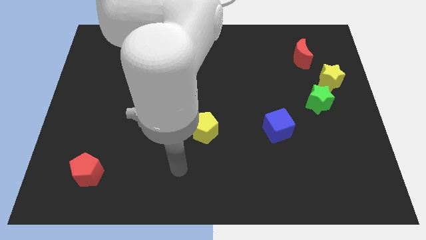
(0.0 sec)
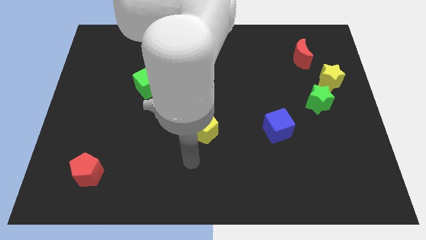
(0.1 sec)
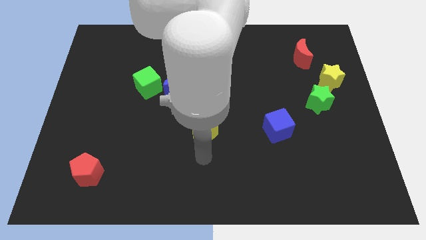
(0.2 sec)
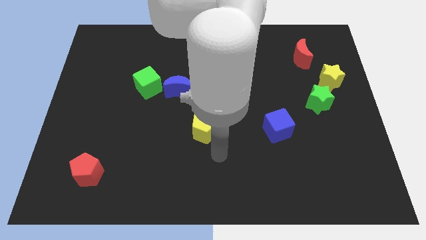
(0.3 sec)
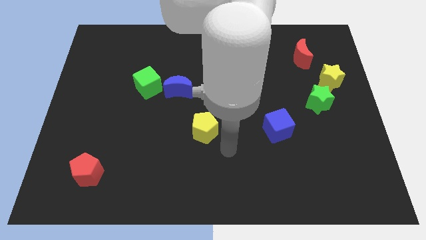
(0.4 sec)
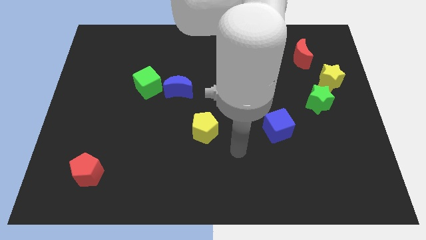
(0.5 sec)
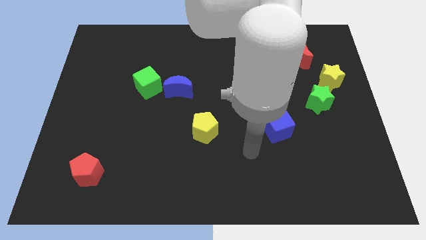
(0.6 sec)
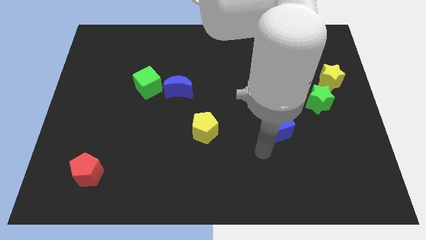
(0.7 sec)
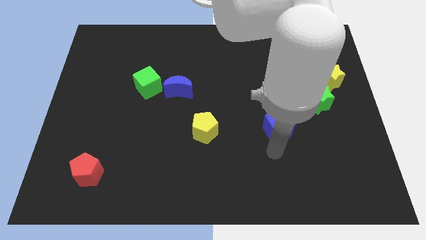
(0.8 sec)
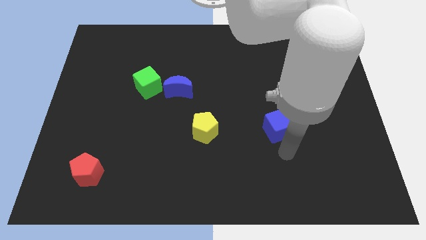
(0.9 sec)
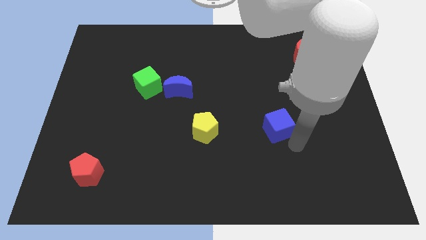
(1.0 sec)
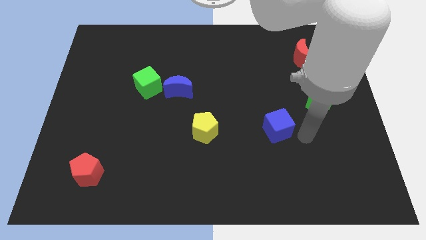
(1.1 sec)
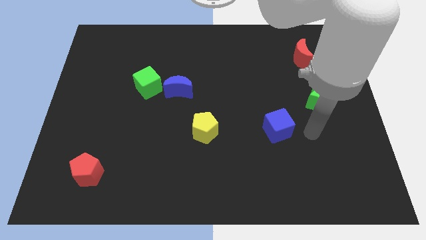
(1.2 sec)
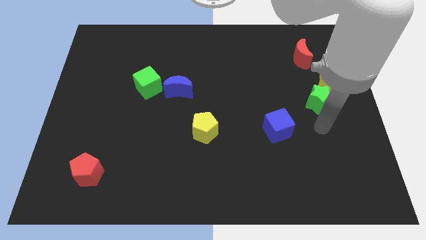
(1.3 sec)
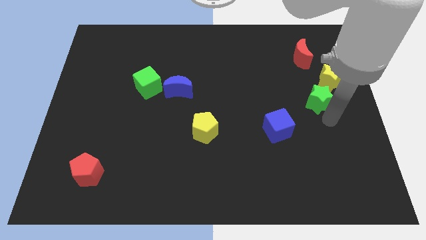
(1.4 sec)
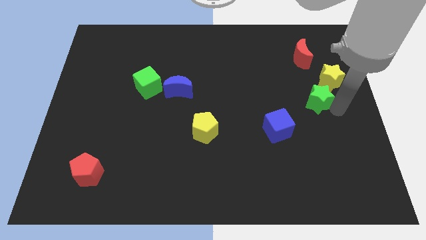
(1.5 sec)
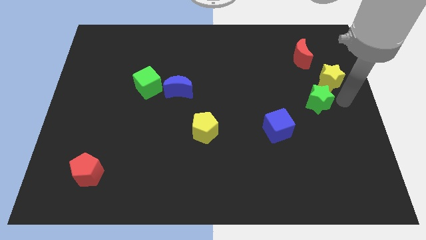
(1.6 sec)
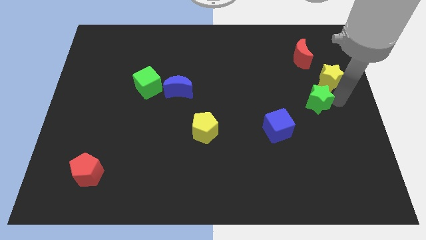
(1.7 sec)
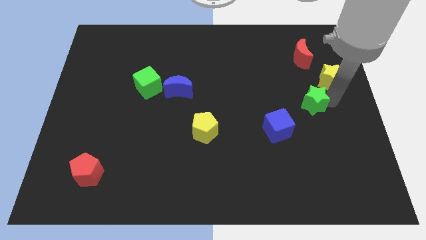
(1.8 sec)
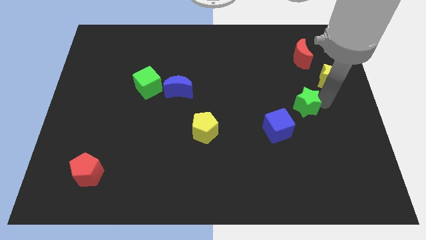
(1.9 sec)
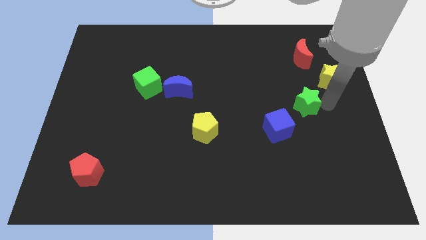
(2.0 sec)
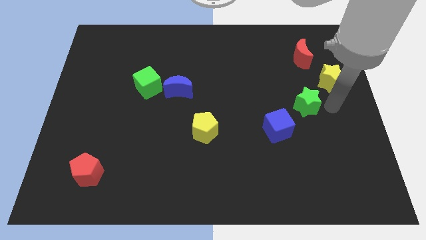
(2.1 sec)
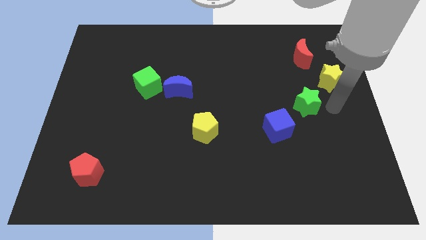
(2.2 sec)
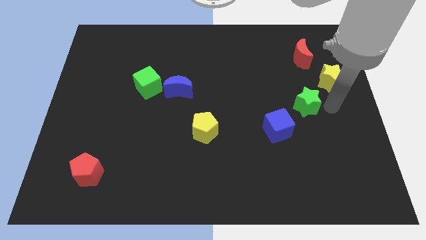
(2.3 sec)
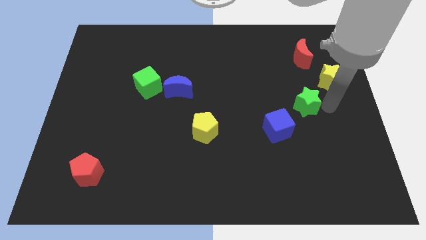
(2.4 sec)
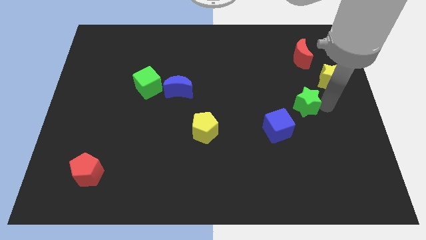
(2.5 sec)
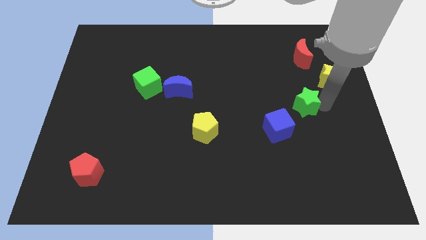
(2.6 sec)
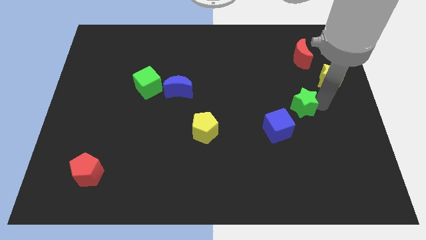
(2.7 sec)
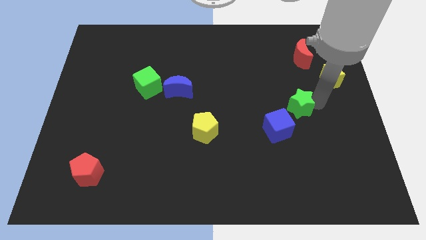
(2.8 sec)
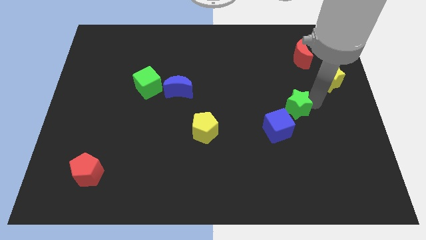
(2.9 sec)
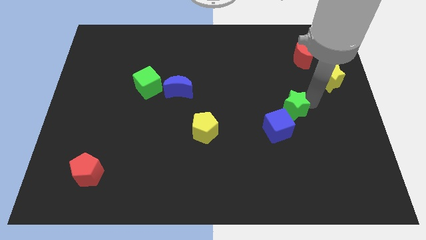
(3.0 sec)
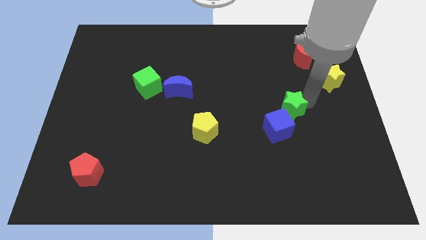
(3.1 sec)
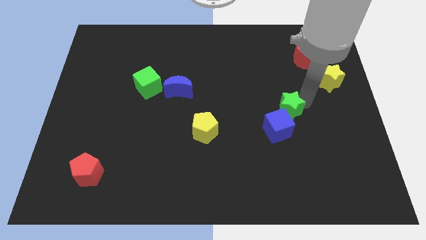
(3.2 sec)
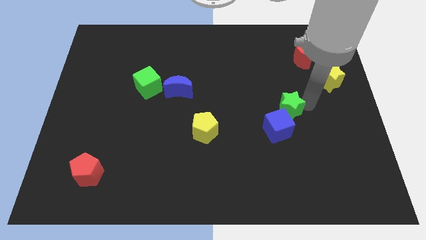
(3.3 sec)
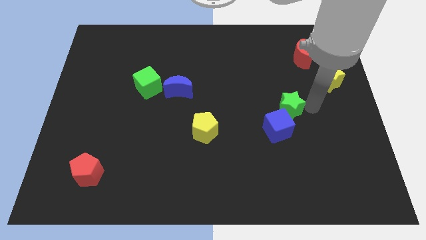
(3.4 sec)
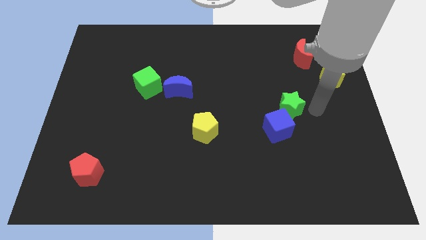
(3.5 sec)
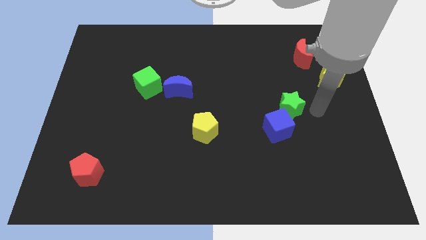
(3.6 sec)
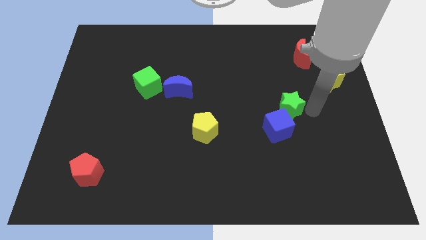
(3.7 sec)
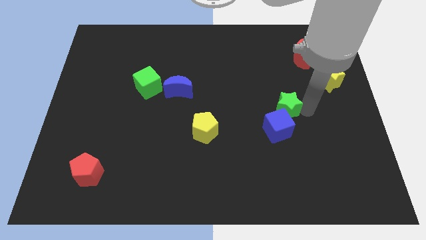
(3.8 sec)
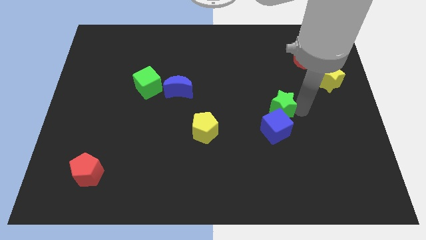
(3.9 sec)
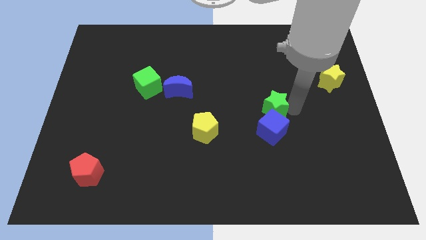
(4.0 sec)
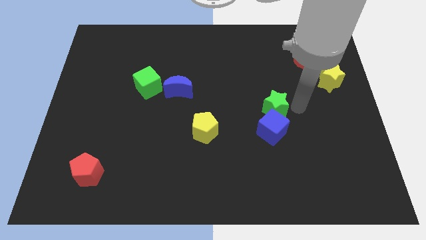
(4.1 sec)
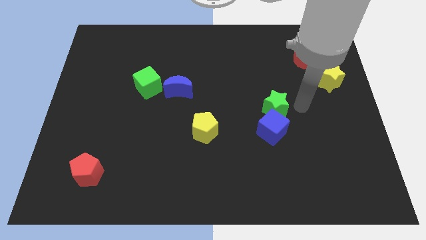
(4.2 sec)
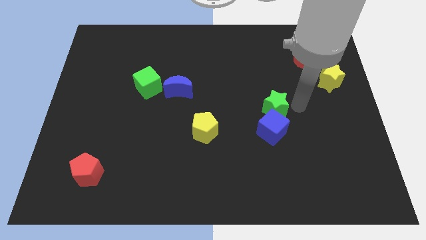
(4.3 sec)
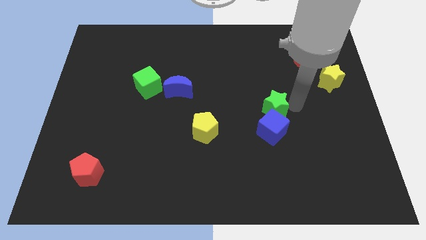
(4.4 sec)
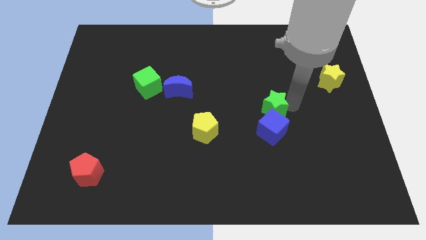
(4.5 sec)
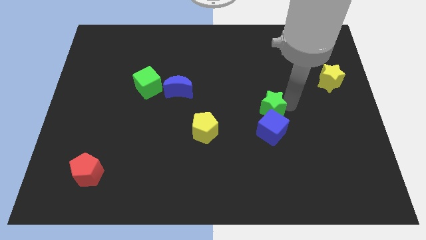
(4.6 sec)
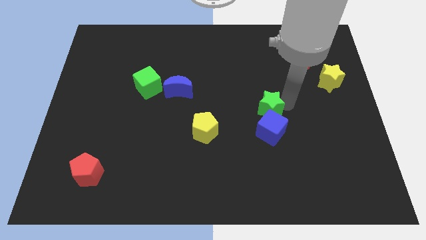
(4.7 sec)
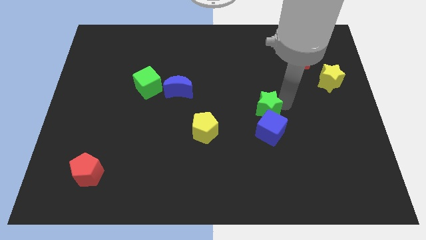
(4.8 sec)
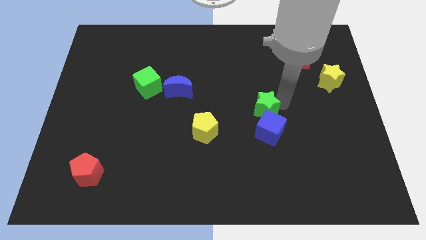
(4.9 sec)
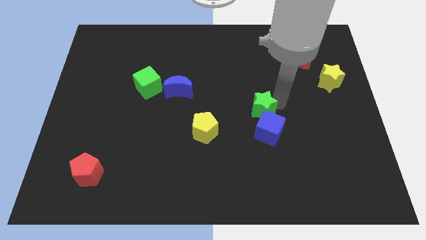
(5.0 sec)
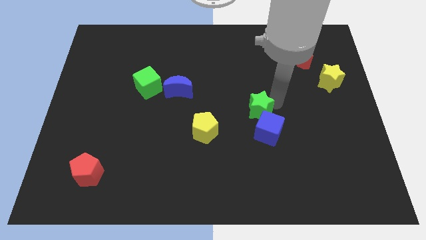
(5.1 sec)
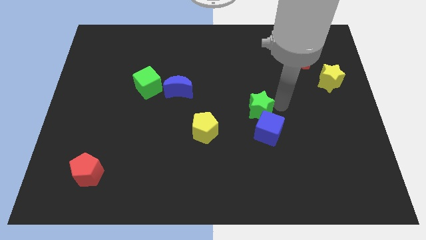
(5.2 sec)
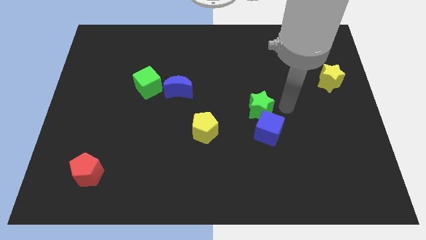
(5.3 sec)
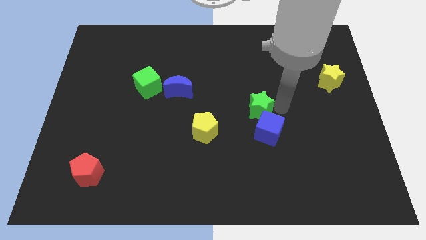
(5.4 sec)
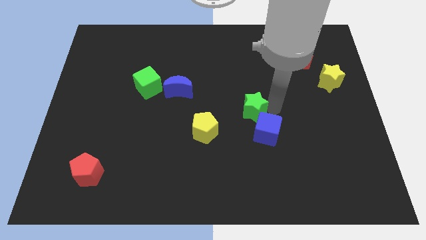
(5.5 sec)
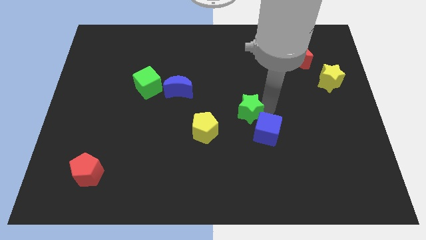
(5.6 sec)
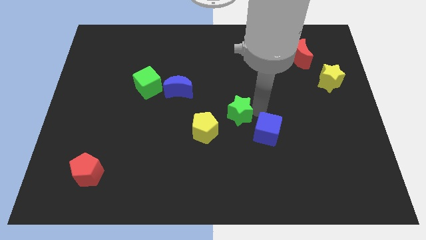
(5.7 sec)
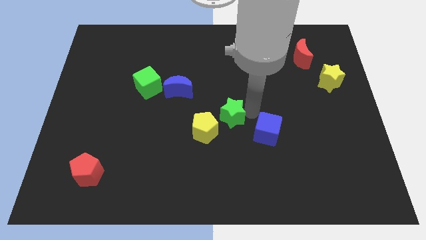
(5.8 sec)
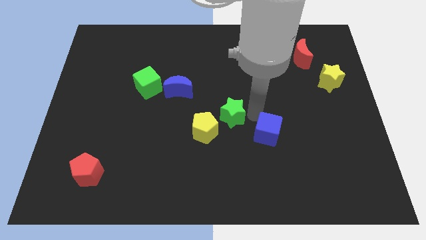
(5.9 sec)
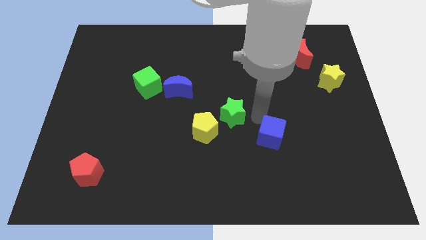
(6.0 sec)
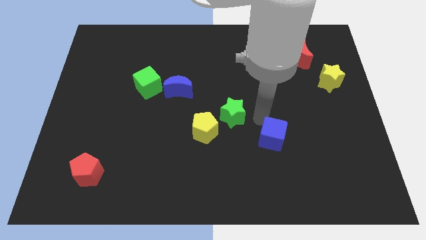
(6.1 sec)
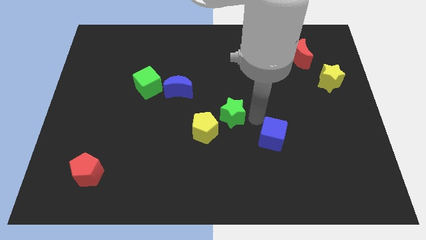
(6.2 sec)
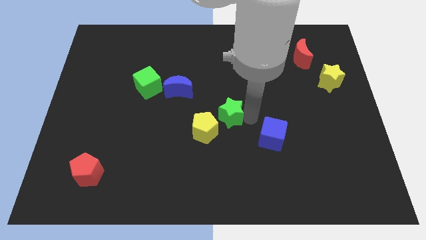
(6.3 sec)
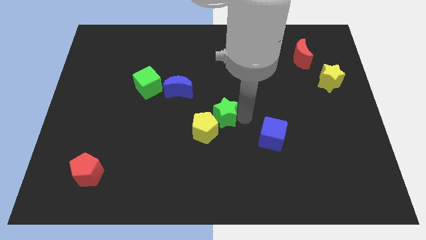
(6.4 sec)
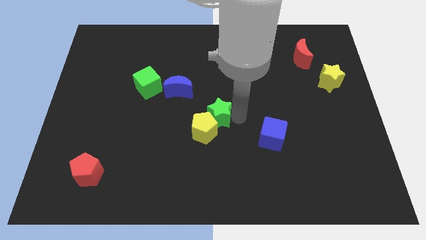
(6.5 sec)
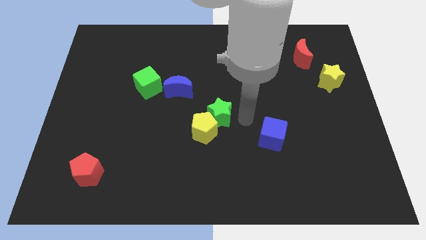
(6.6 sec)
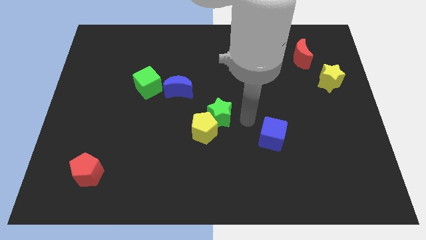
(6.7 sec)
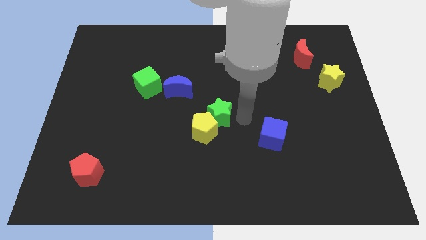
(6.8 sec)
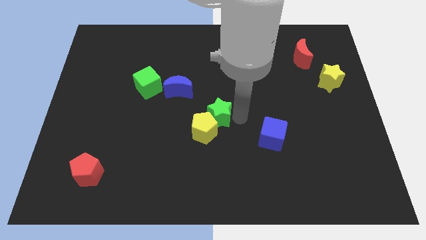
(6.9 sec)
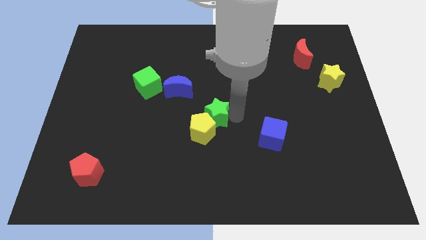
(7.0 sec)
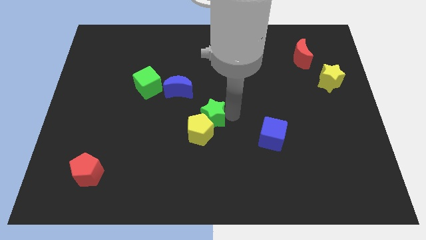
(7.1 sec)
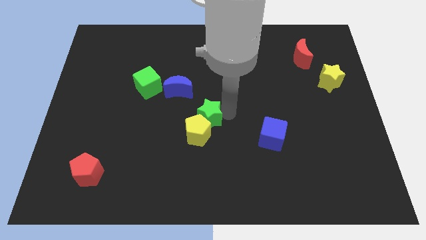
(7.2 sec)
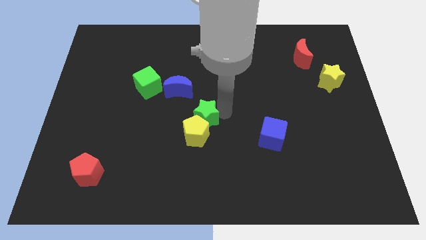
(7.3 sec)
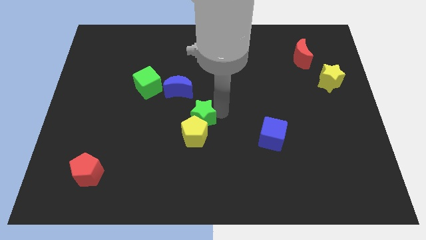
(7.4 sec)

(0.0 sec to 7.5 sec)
push the green star to the top left of the yellow pentagon
